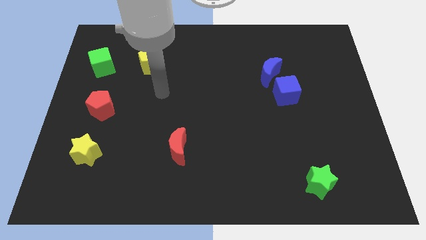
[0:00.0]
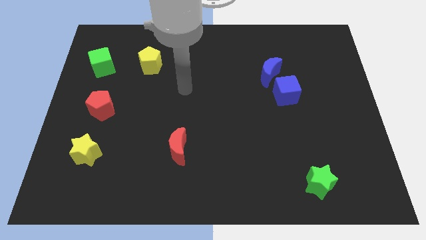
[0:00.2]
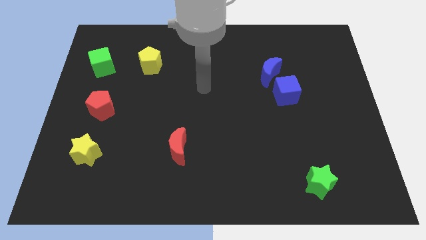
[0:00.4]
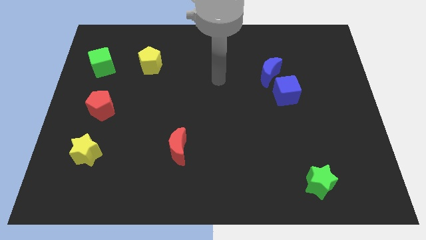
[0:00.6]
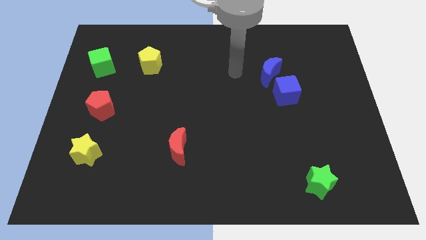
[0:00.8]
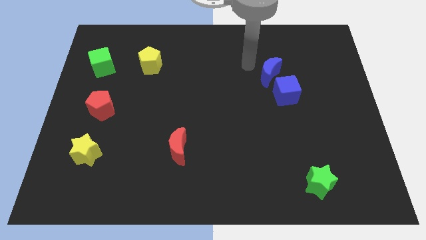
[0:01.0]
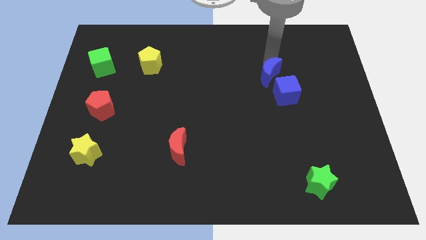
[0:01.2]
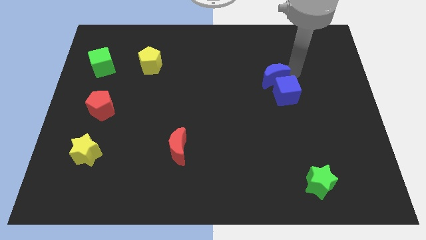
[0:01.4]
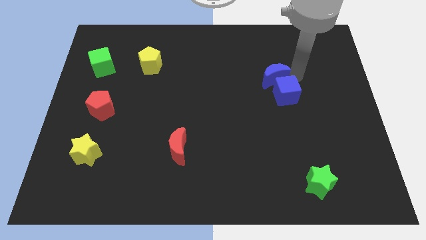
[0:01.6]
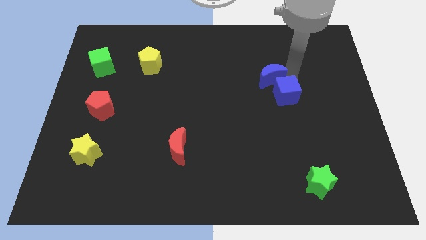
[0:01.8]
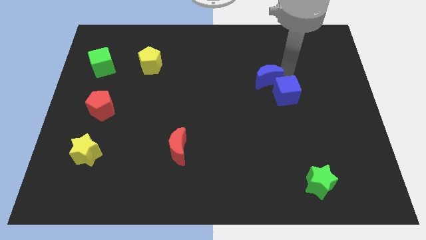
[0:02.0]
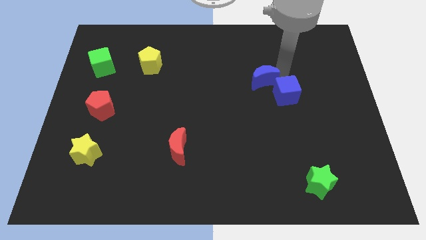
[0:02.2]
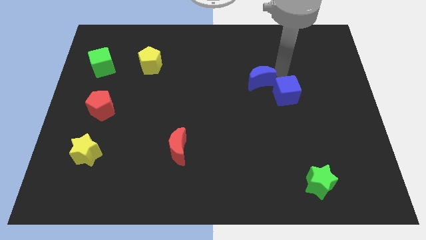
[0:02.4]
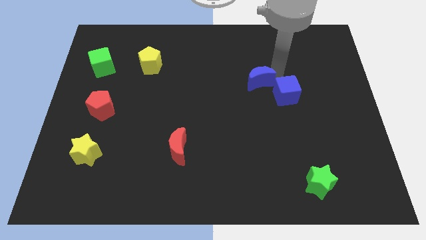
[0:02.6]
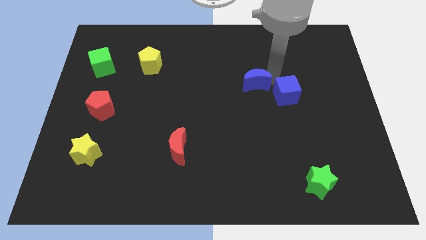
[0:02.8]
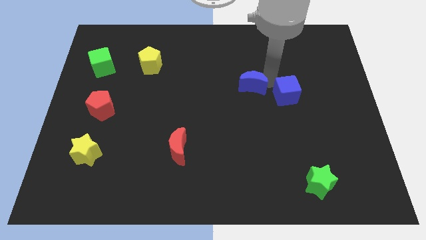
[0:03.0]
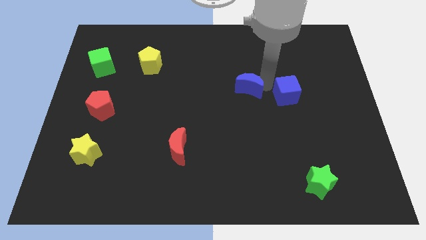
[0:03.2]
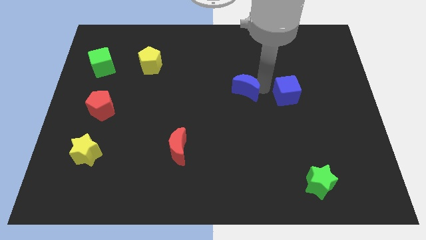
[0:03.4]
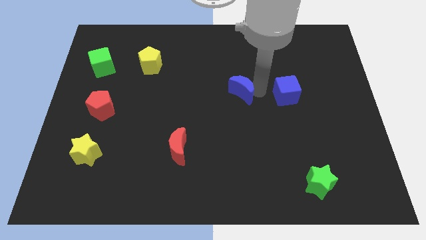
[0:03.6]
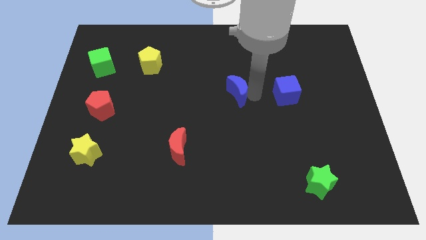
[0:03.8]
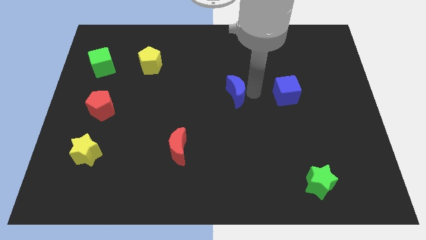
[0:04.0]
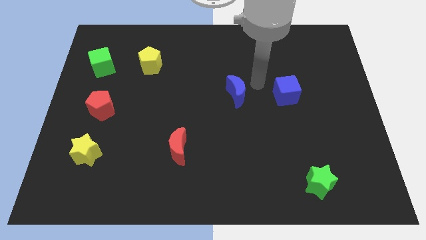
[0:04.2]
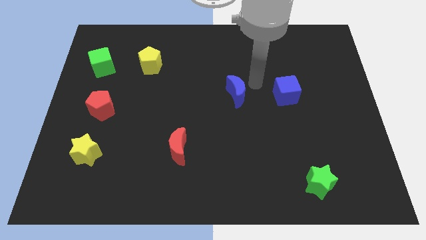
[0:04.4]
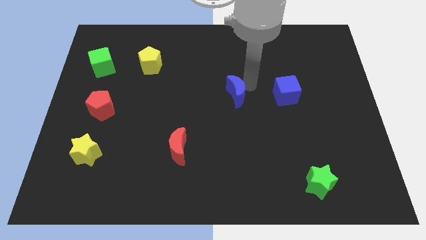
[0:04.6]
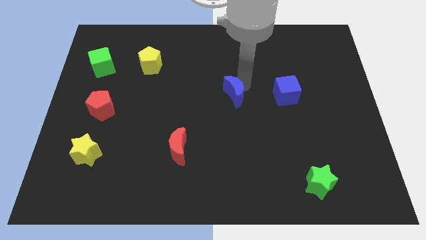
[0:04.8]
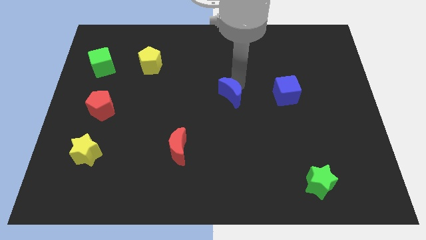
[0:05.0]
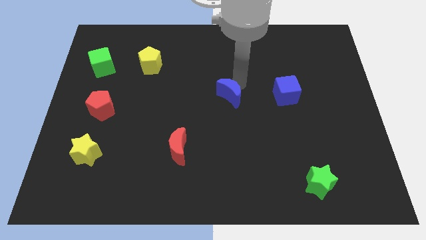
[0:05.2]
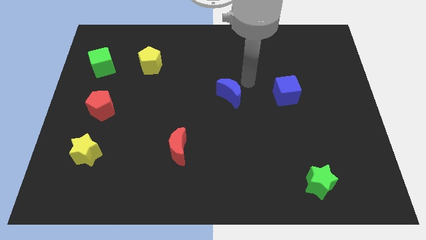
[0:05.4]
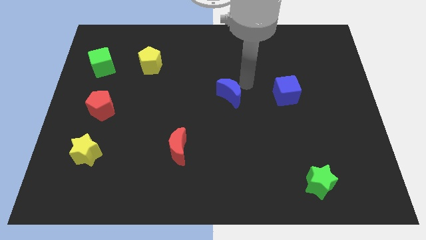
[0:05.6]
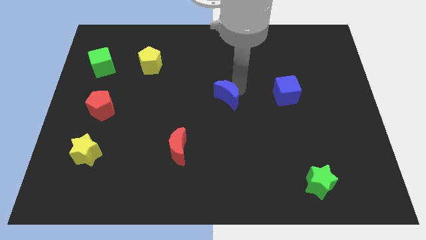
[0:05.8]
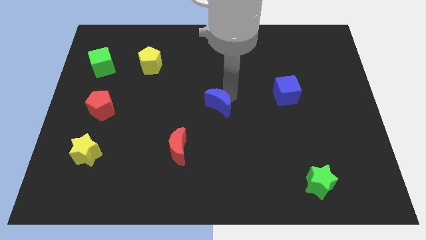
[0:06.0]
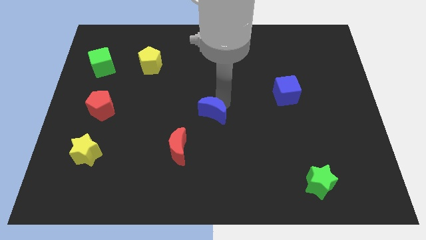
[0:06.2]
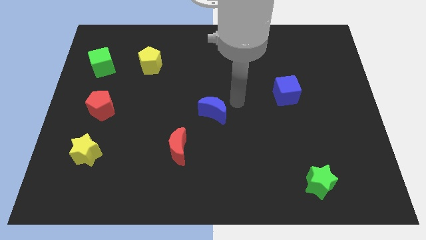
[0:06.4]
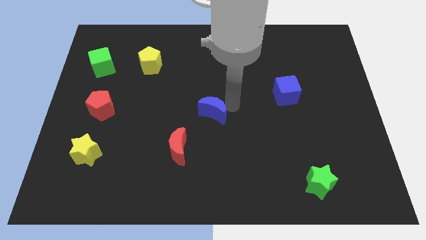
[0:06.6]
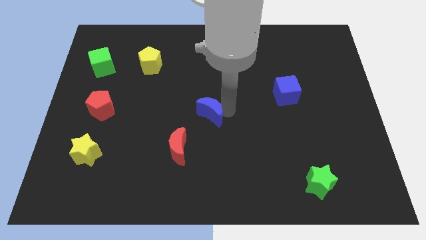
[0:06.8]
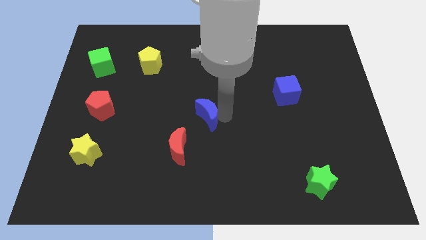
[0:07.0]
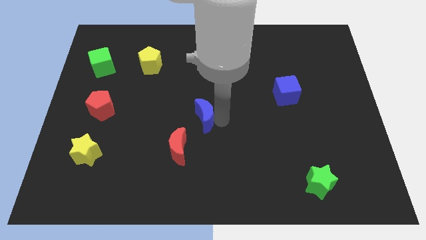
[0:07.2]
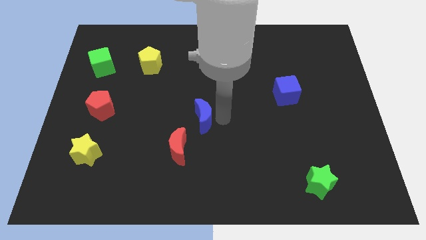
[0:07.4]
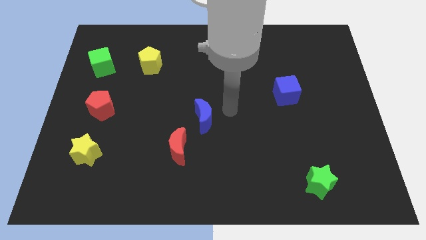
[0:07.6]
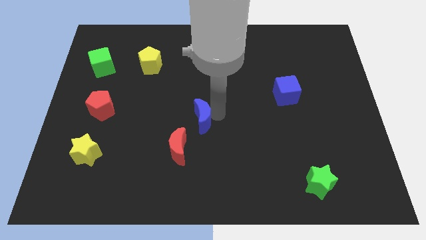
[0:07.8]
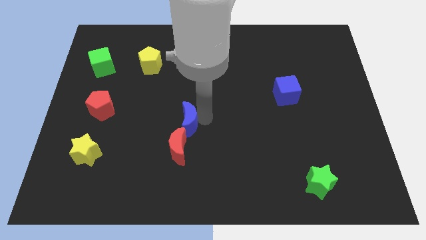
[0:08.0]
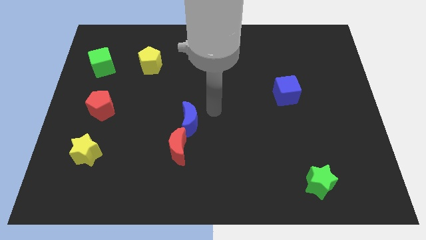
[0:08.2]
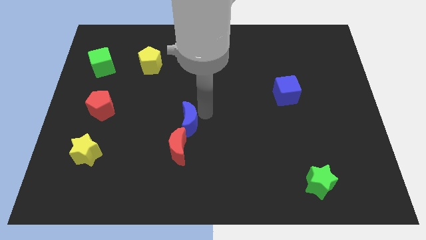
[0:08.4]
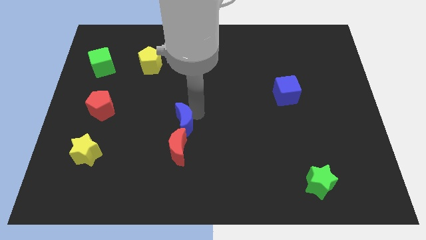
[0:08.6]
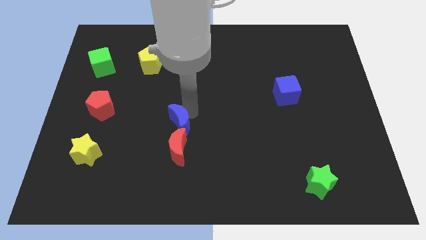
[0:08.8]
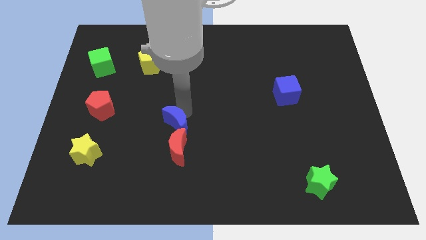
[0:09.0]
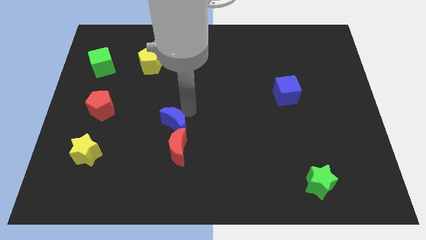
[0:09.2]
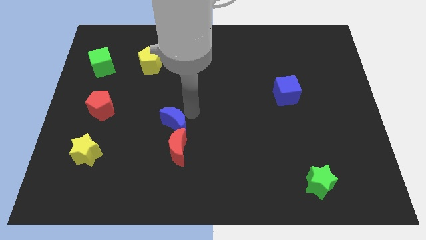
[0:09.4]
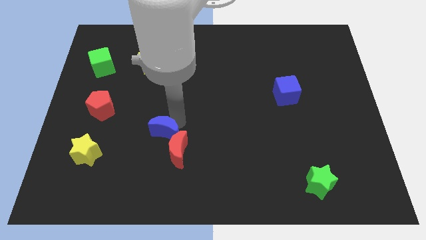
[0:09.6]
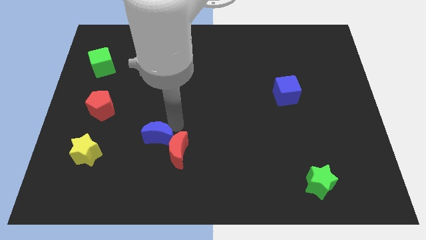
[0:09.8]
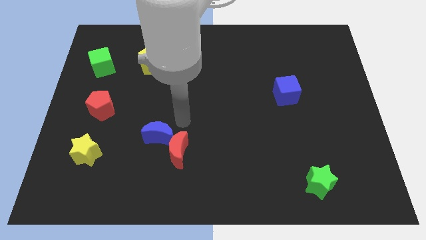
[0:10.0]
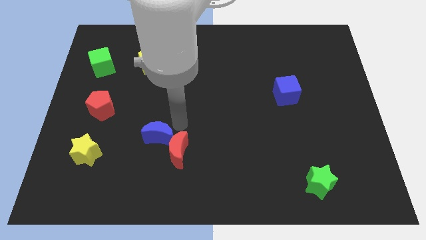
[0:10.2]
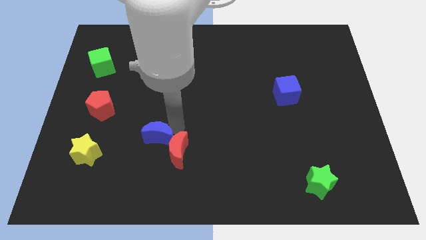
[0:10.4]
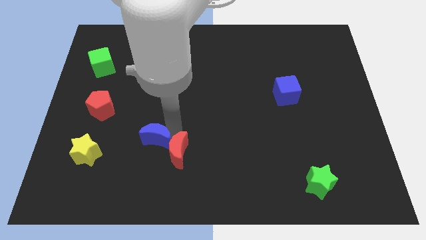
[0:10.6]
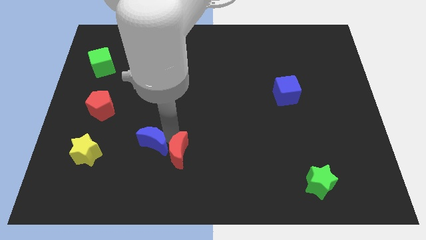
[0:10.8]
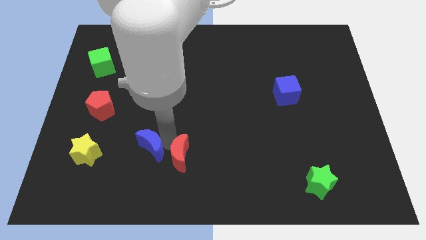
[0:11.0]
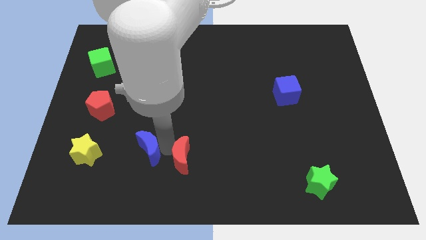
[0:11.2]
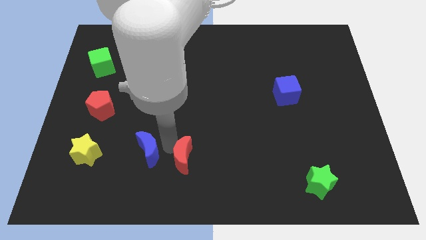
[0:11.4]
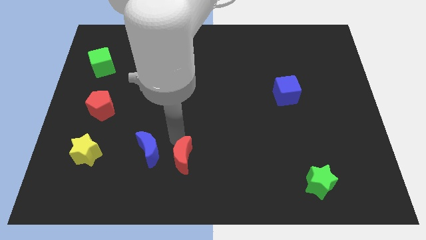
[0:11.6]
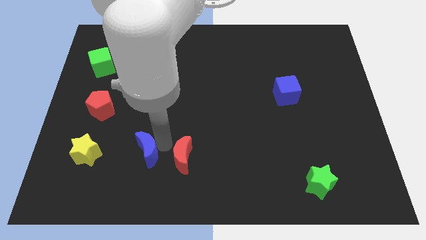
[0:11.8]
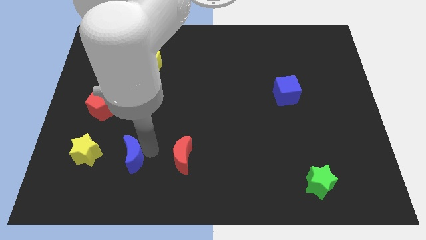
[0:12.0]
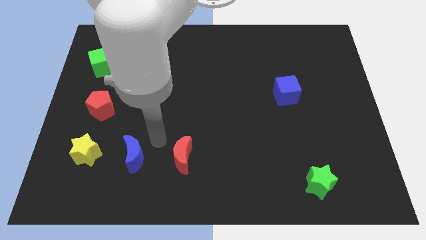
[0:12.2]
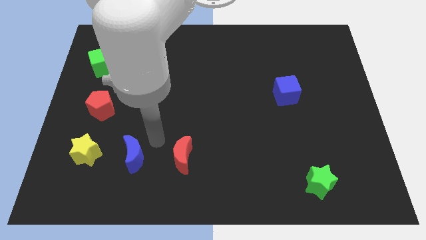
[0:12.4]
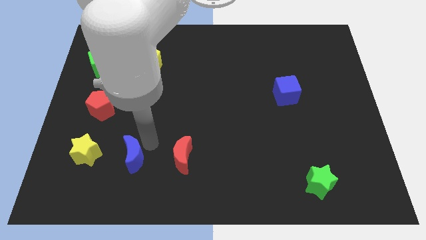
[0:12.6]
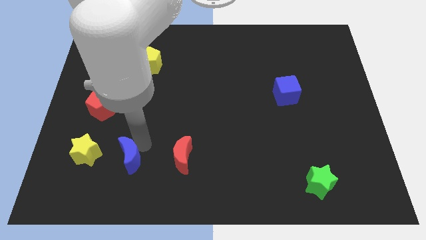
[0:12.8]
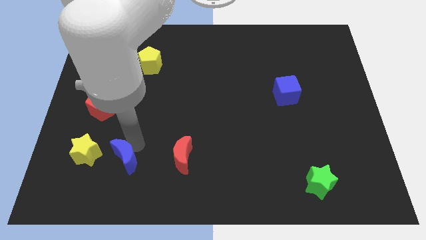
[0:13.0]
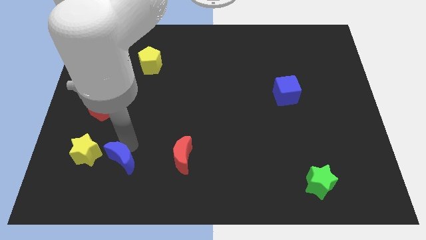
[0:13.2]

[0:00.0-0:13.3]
push the blue moon to the bottom right side of the yellow star
